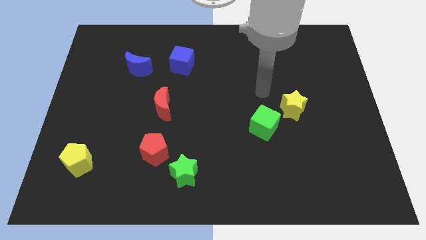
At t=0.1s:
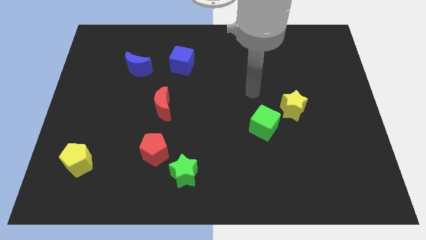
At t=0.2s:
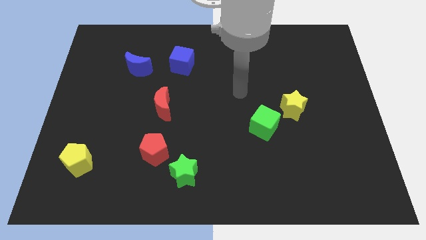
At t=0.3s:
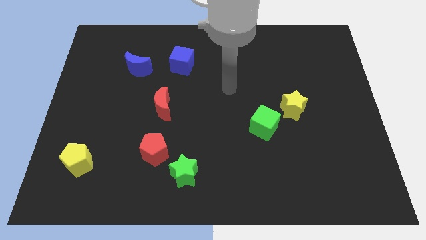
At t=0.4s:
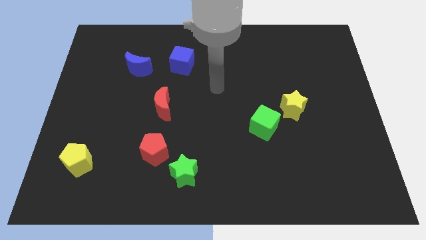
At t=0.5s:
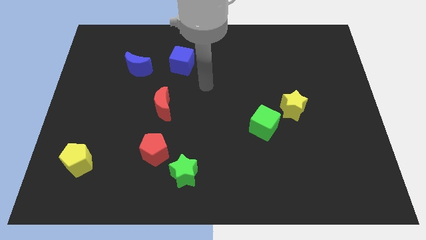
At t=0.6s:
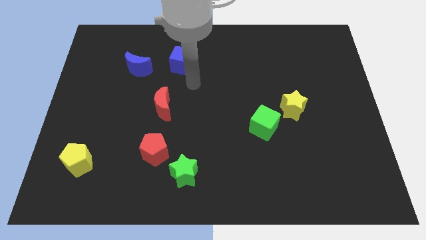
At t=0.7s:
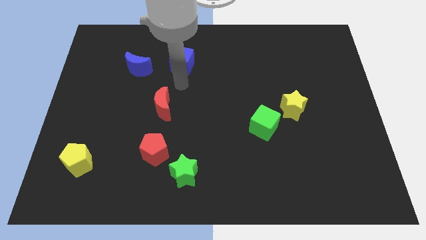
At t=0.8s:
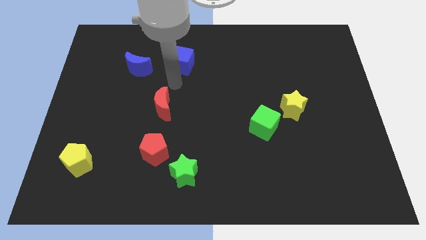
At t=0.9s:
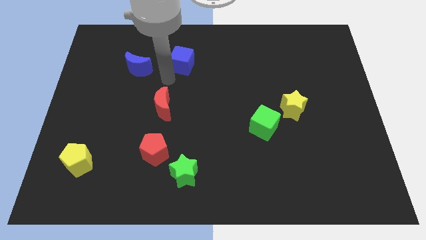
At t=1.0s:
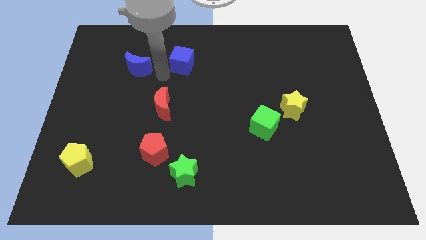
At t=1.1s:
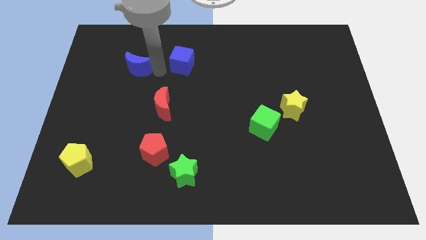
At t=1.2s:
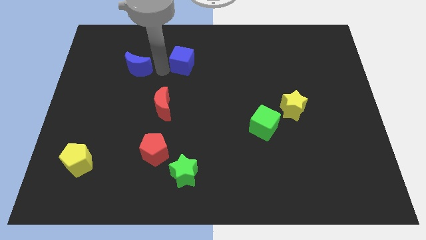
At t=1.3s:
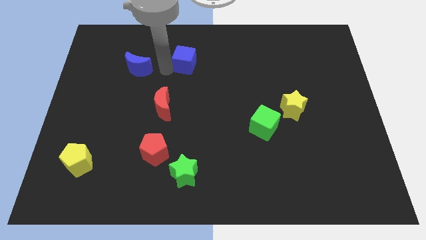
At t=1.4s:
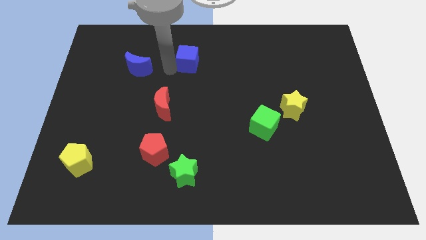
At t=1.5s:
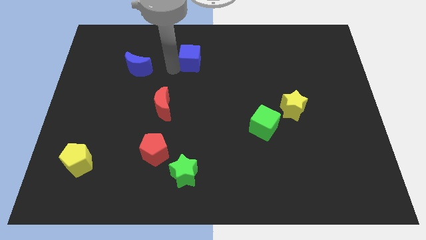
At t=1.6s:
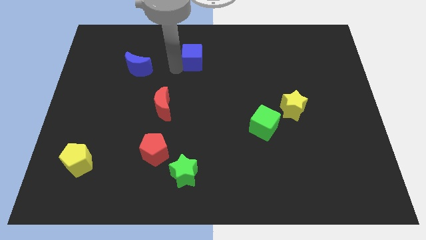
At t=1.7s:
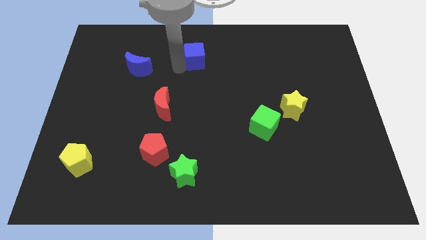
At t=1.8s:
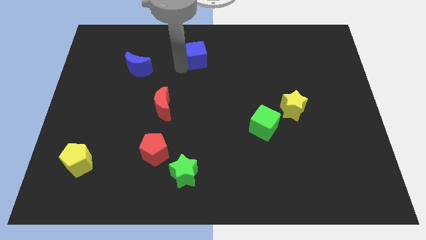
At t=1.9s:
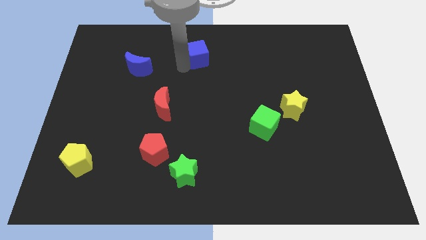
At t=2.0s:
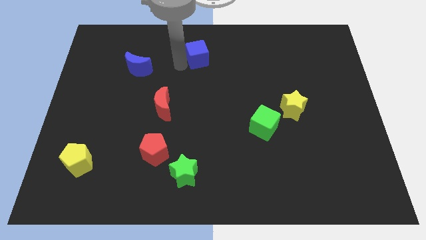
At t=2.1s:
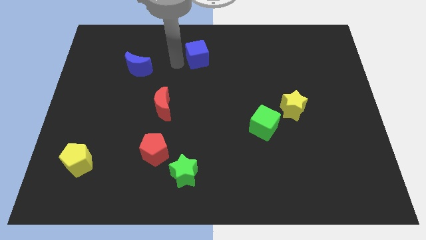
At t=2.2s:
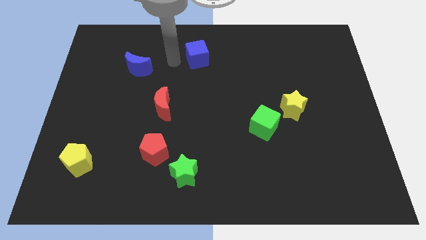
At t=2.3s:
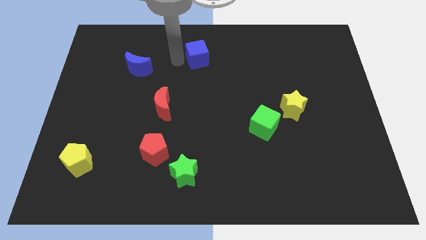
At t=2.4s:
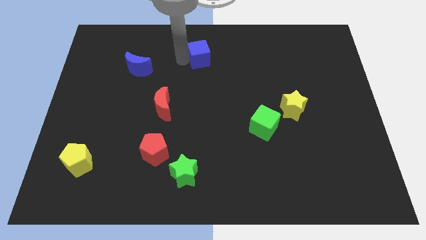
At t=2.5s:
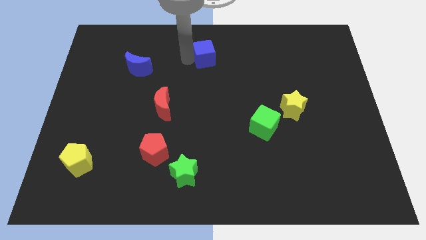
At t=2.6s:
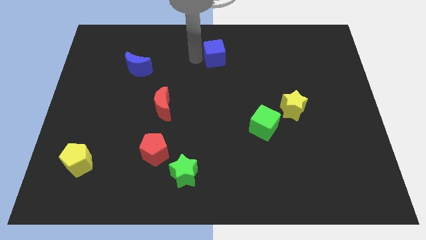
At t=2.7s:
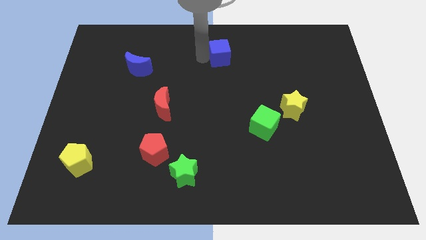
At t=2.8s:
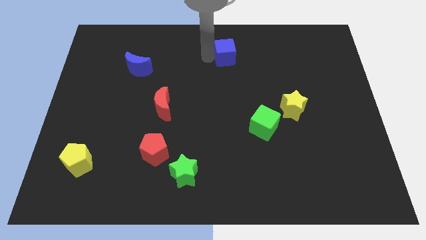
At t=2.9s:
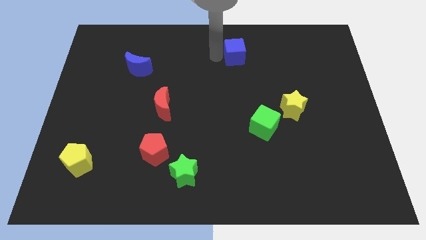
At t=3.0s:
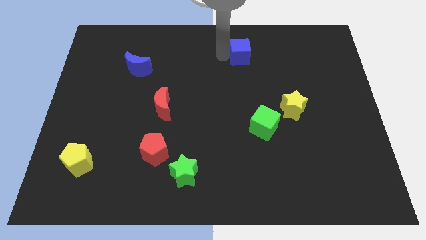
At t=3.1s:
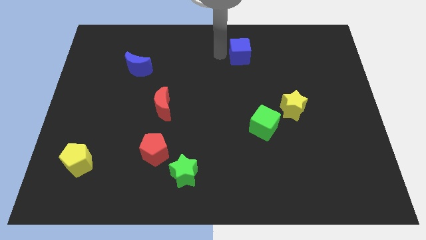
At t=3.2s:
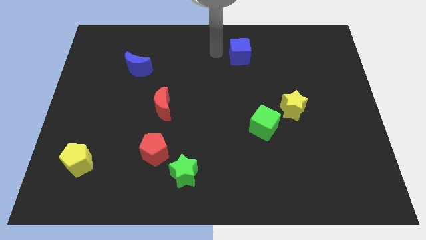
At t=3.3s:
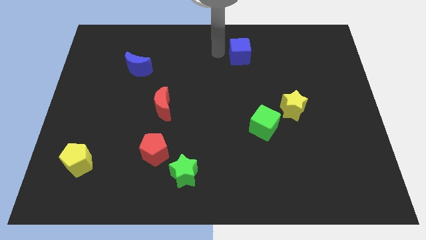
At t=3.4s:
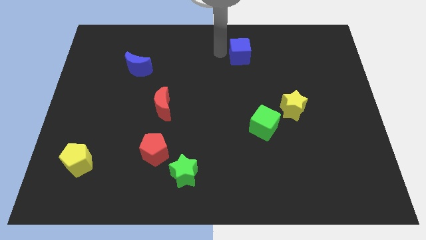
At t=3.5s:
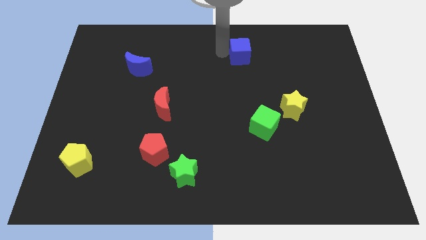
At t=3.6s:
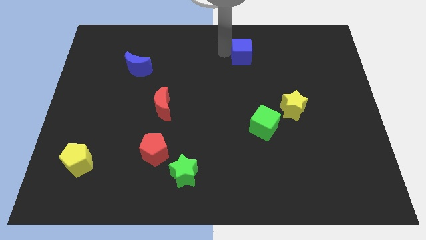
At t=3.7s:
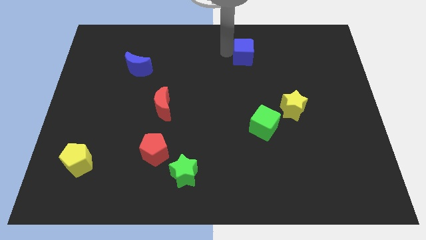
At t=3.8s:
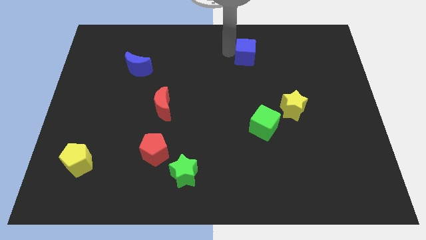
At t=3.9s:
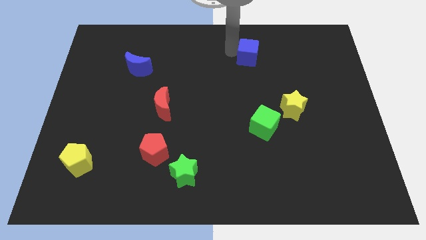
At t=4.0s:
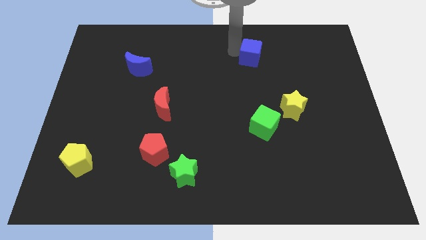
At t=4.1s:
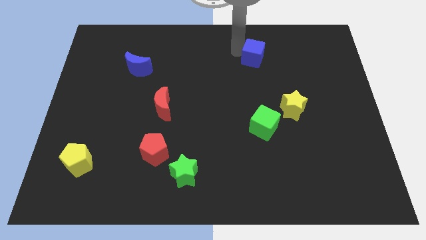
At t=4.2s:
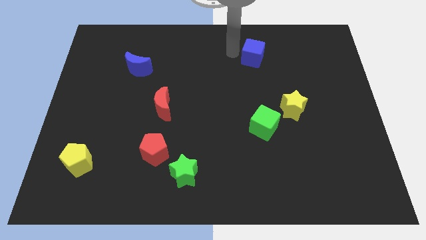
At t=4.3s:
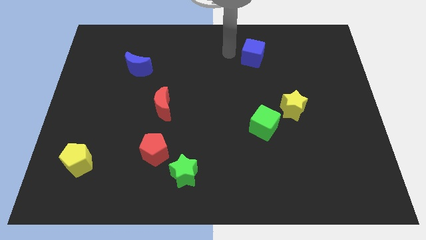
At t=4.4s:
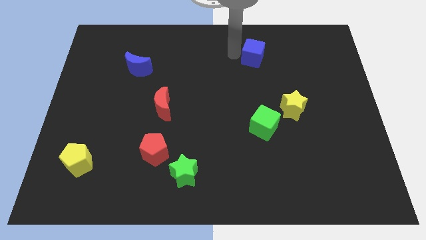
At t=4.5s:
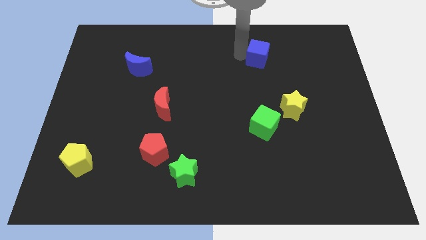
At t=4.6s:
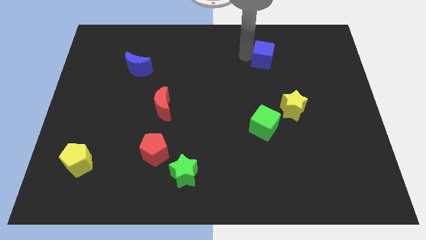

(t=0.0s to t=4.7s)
push the blue cube to the right

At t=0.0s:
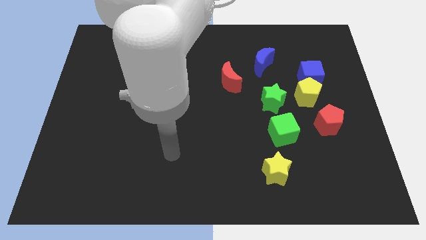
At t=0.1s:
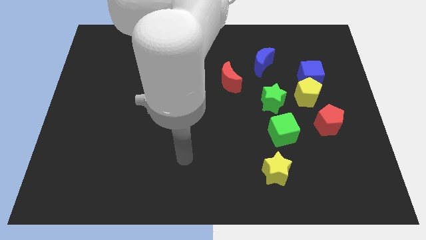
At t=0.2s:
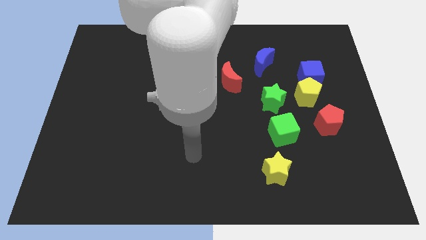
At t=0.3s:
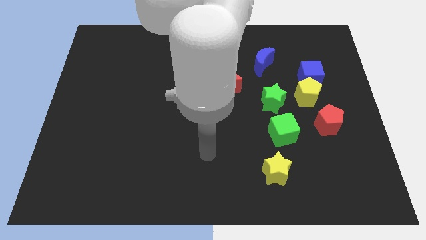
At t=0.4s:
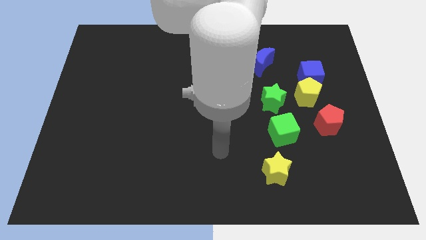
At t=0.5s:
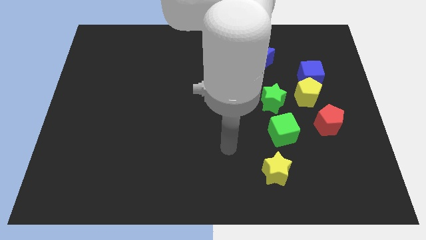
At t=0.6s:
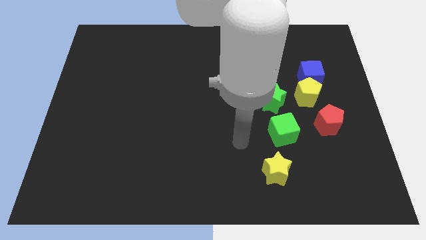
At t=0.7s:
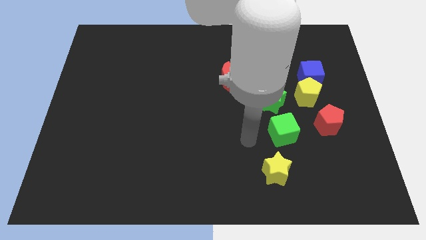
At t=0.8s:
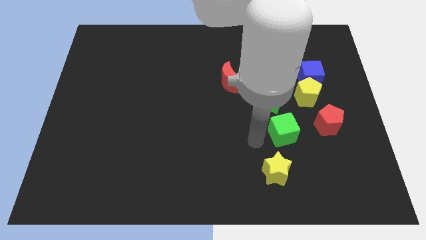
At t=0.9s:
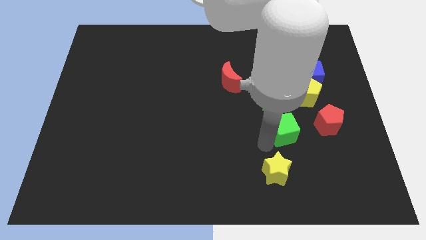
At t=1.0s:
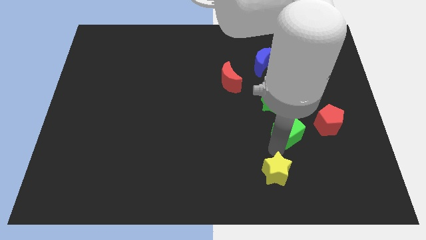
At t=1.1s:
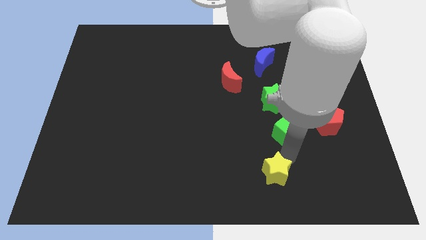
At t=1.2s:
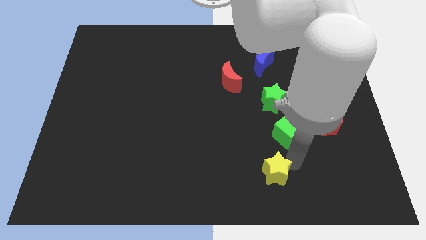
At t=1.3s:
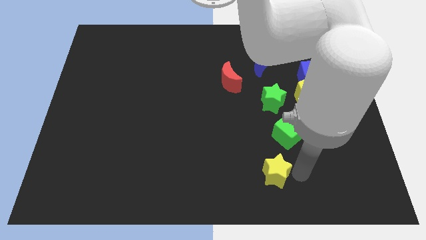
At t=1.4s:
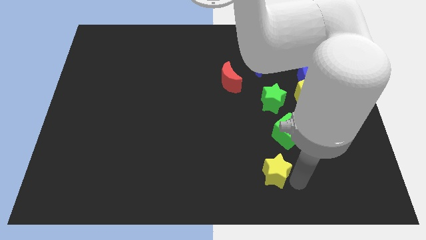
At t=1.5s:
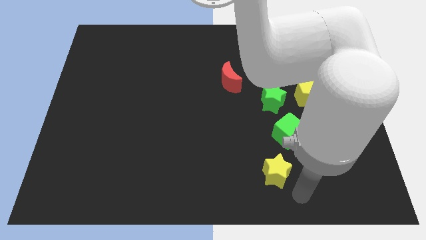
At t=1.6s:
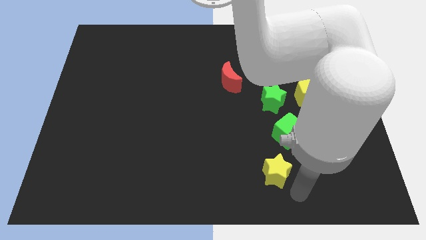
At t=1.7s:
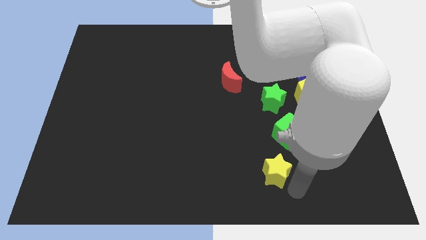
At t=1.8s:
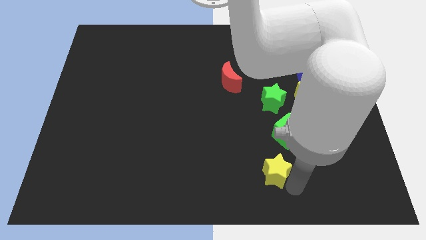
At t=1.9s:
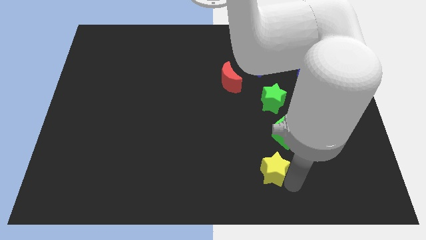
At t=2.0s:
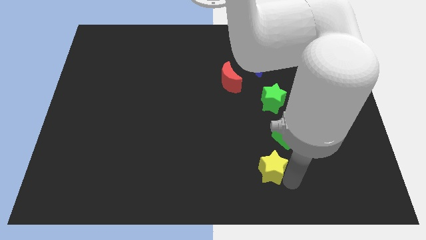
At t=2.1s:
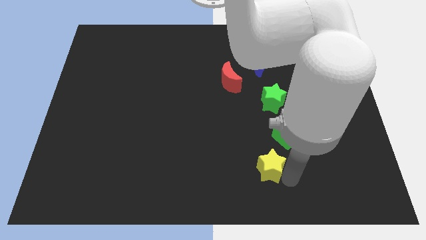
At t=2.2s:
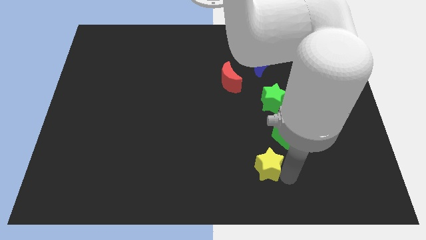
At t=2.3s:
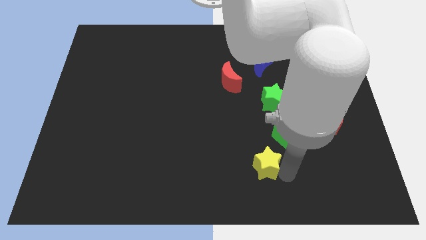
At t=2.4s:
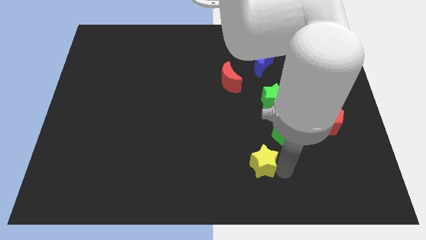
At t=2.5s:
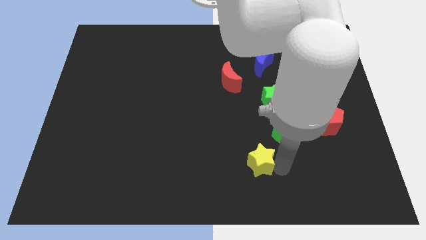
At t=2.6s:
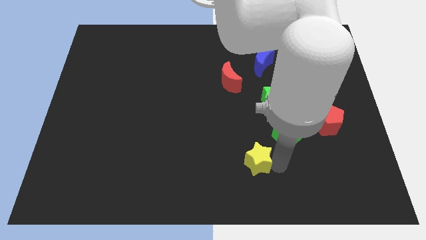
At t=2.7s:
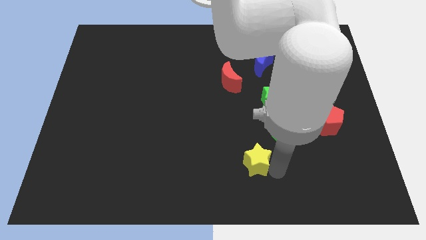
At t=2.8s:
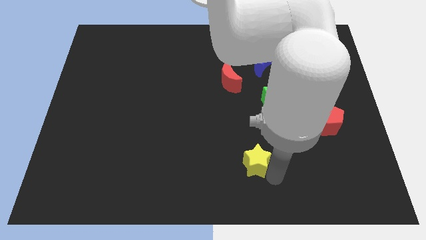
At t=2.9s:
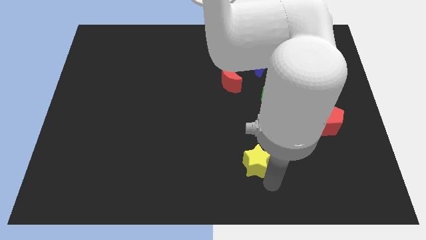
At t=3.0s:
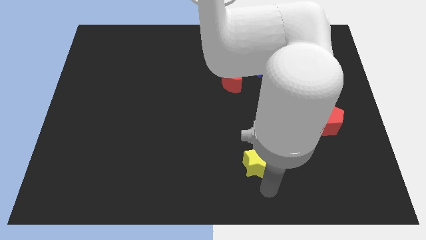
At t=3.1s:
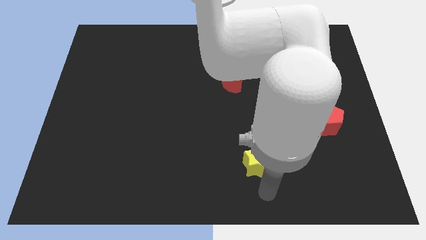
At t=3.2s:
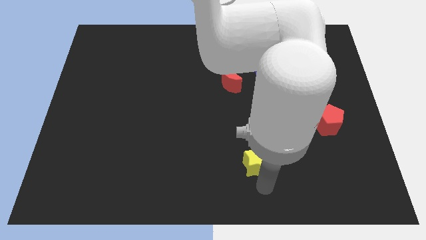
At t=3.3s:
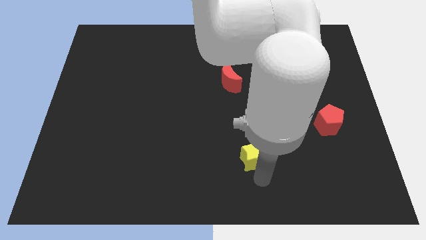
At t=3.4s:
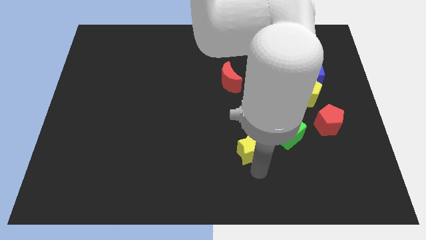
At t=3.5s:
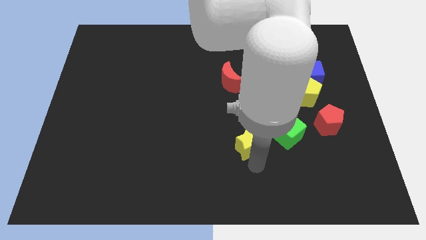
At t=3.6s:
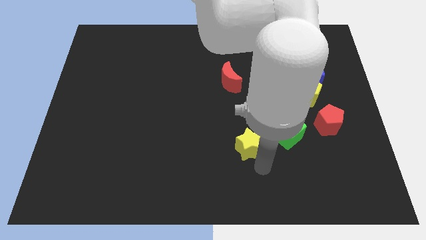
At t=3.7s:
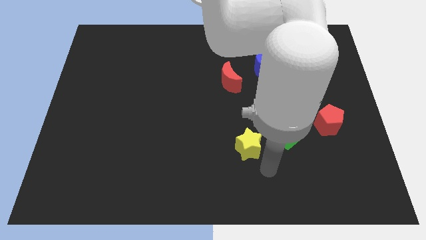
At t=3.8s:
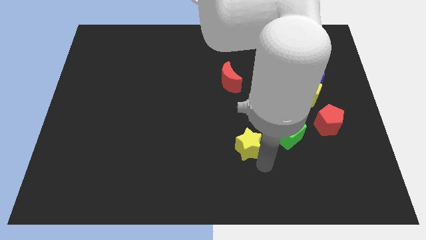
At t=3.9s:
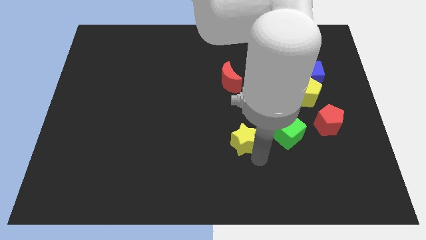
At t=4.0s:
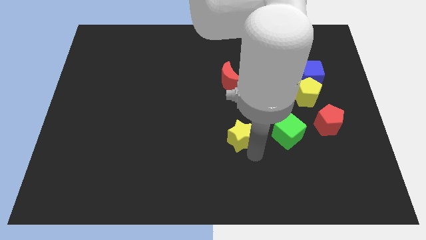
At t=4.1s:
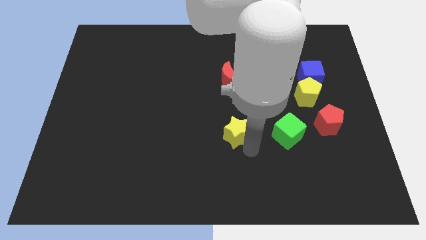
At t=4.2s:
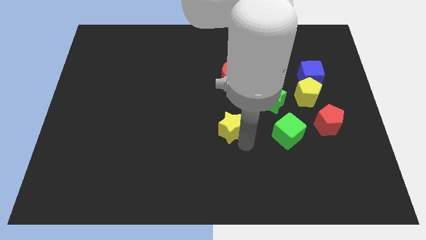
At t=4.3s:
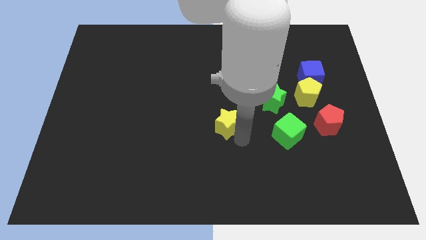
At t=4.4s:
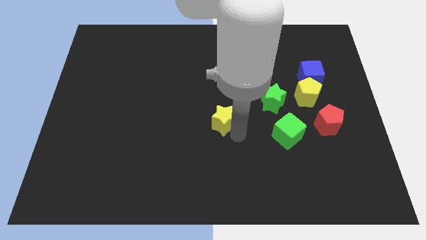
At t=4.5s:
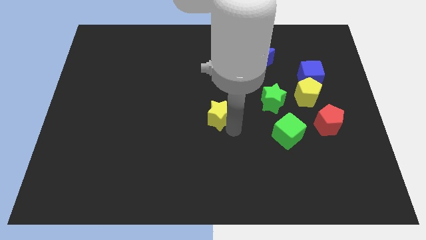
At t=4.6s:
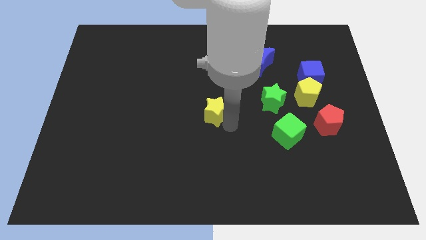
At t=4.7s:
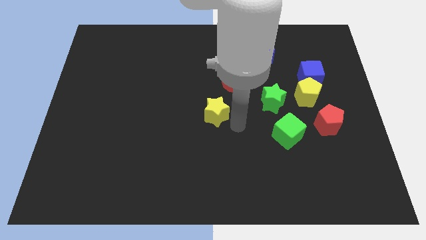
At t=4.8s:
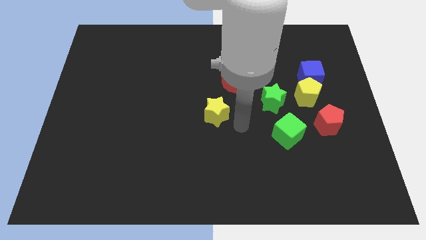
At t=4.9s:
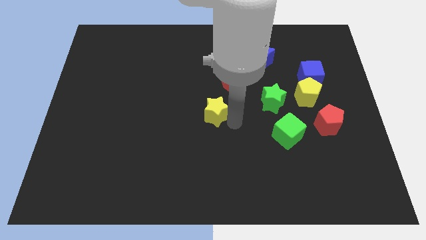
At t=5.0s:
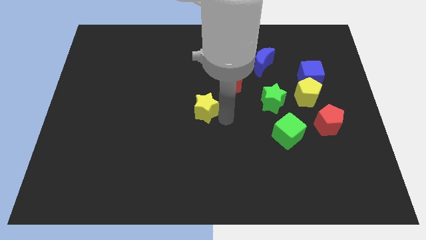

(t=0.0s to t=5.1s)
move the yellow star upwards and left
